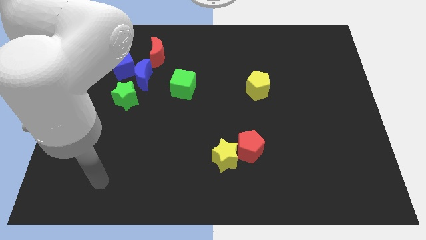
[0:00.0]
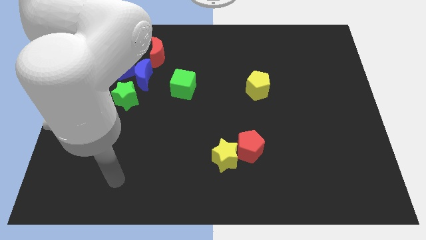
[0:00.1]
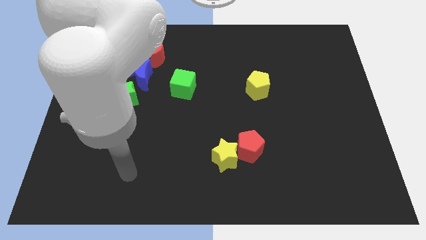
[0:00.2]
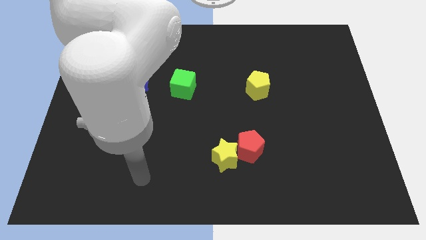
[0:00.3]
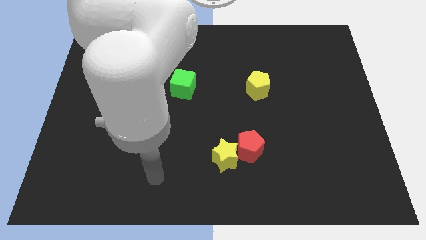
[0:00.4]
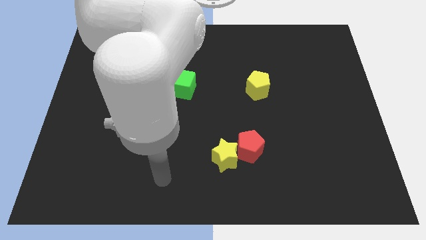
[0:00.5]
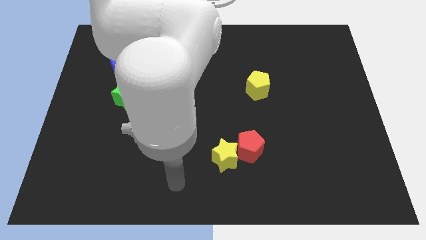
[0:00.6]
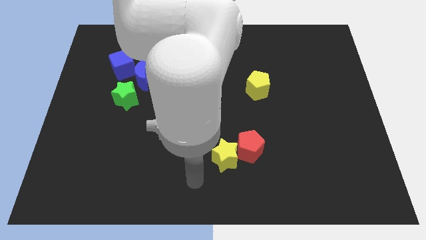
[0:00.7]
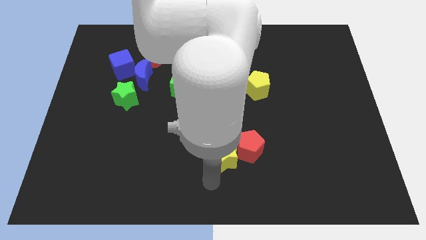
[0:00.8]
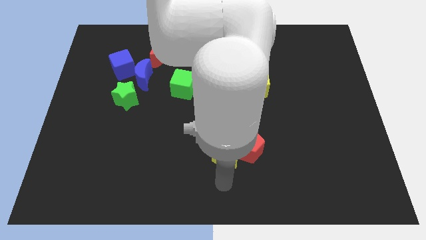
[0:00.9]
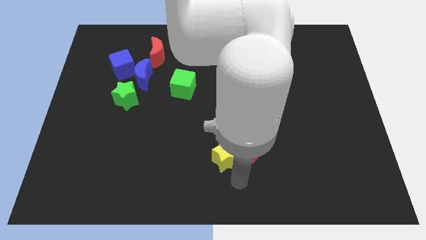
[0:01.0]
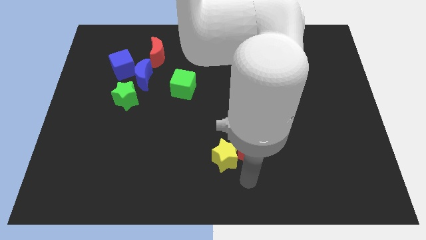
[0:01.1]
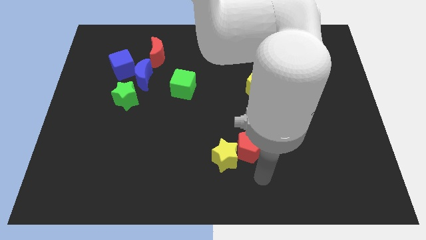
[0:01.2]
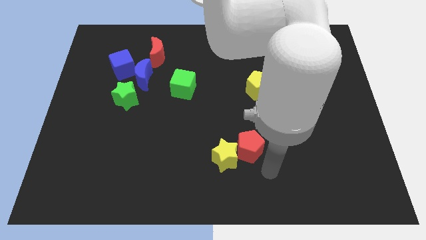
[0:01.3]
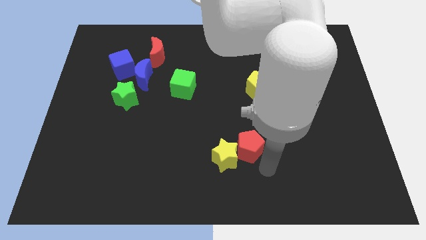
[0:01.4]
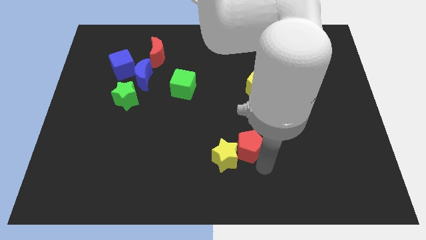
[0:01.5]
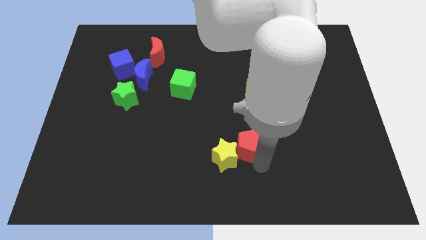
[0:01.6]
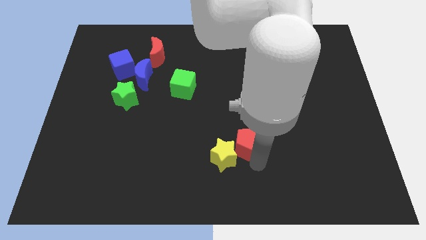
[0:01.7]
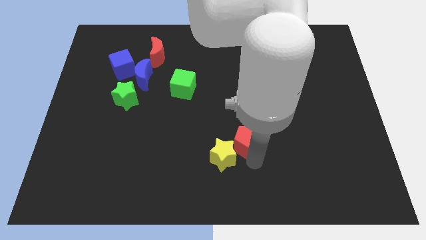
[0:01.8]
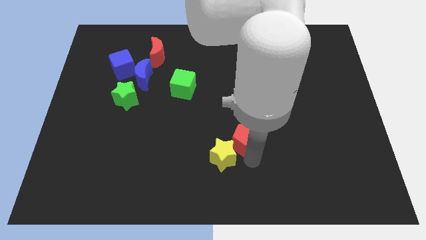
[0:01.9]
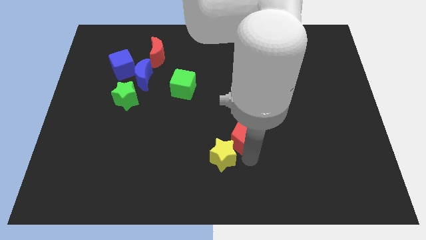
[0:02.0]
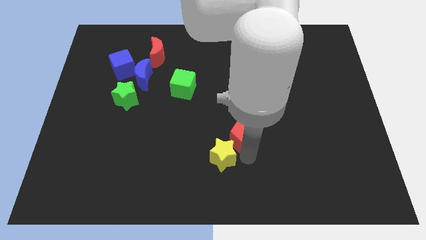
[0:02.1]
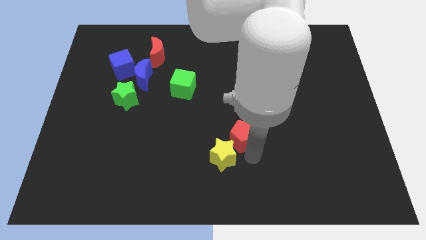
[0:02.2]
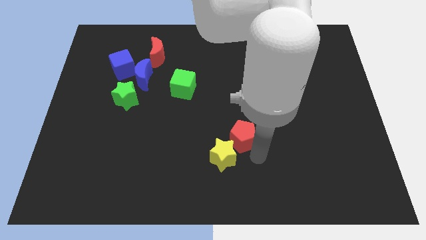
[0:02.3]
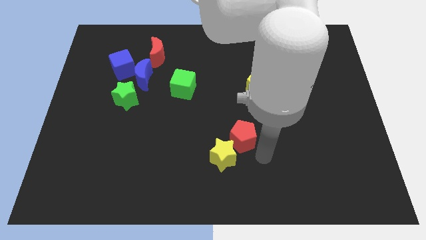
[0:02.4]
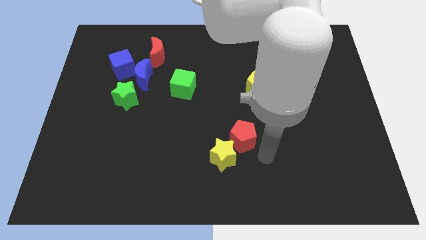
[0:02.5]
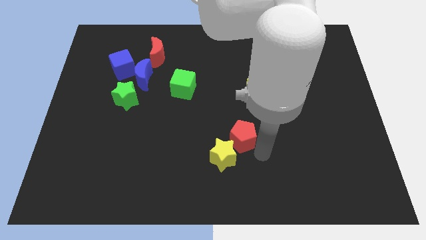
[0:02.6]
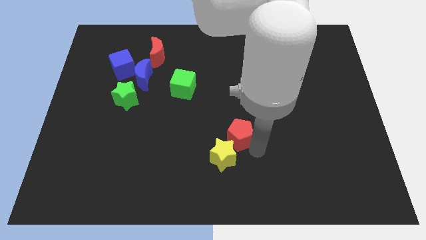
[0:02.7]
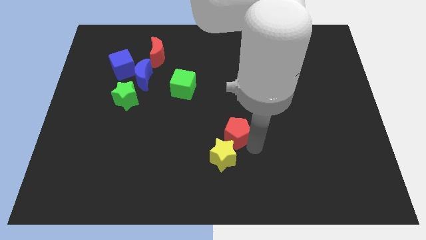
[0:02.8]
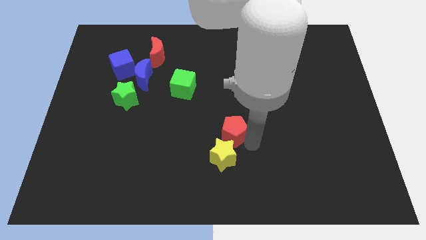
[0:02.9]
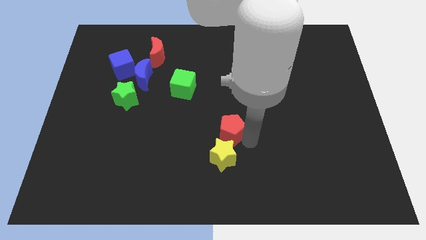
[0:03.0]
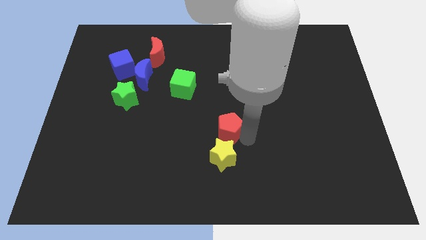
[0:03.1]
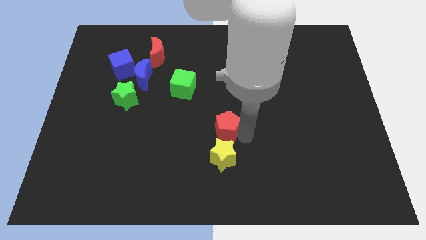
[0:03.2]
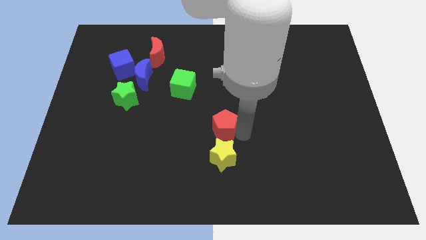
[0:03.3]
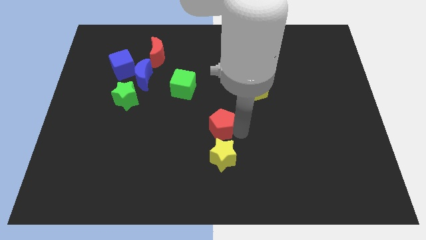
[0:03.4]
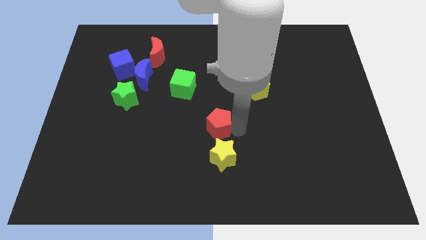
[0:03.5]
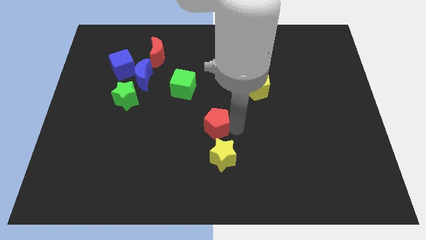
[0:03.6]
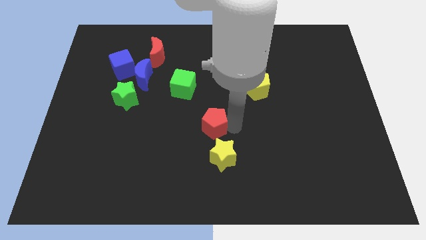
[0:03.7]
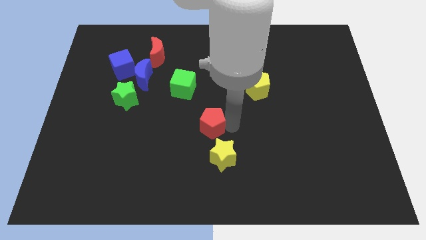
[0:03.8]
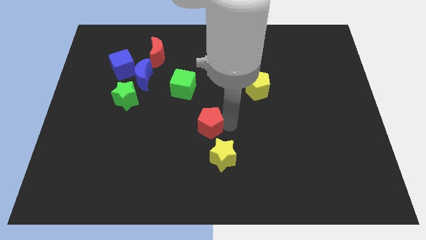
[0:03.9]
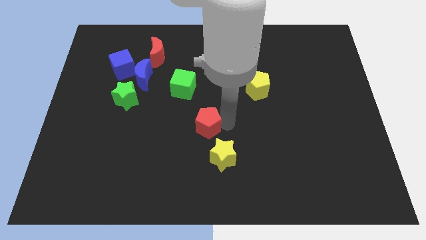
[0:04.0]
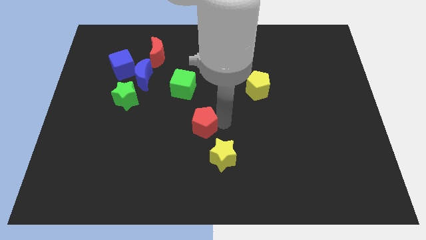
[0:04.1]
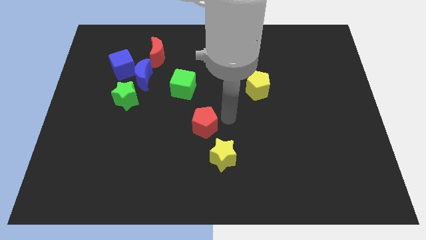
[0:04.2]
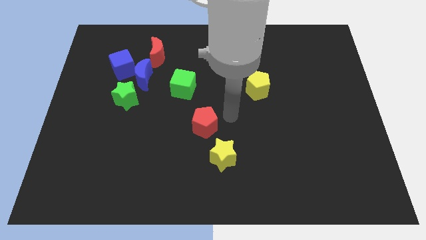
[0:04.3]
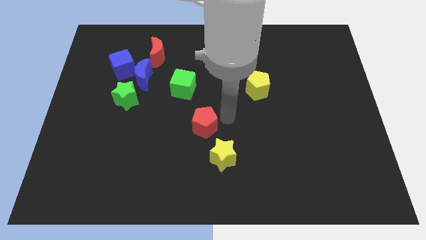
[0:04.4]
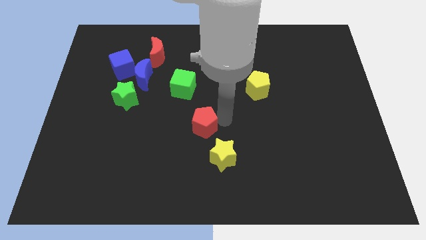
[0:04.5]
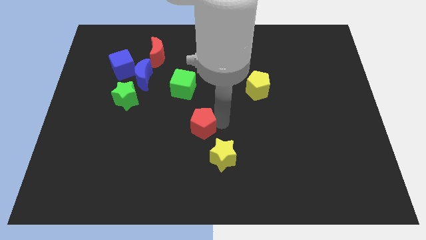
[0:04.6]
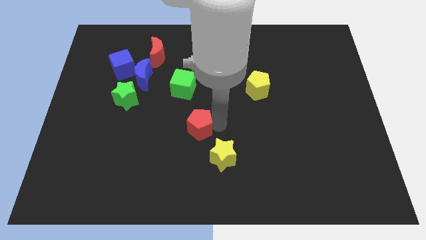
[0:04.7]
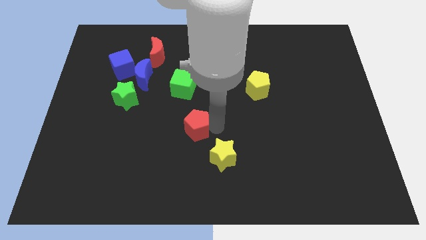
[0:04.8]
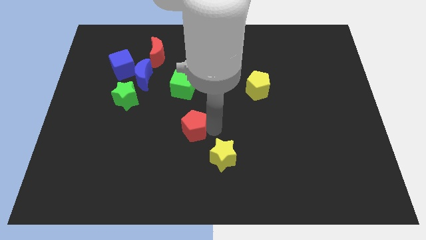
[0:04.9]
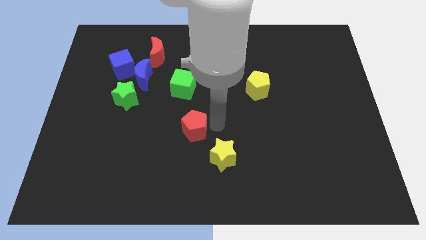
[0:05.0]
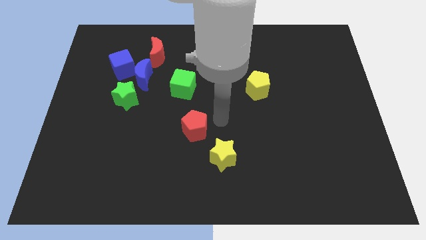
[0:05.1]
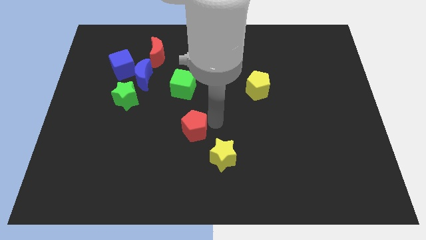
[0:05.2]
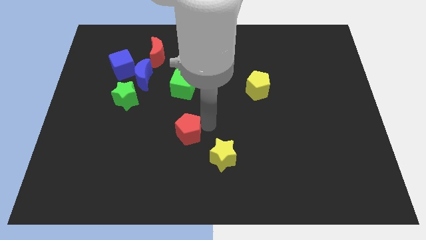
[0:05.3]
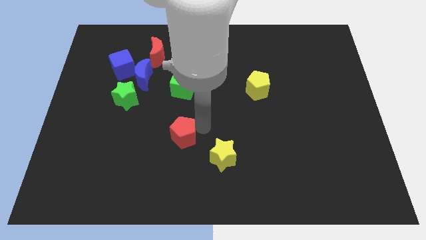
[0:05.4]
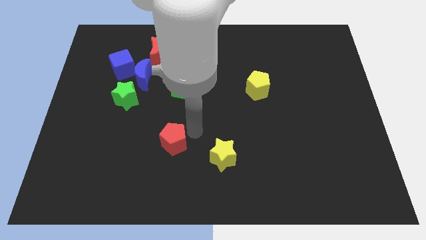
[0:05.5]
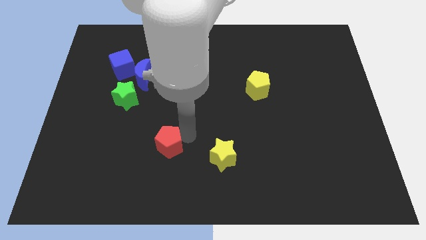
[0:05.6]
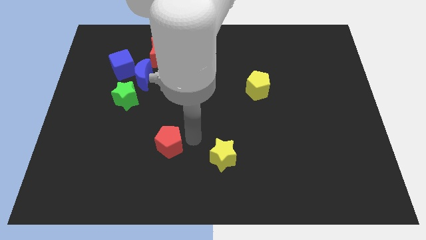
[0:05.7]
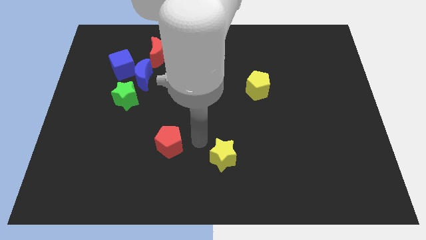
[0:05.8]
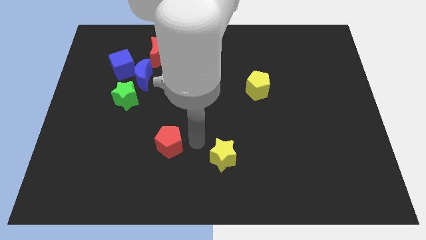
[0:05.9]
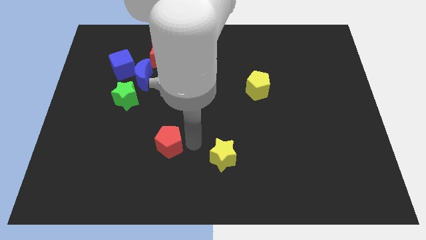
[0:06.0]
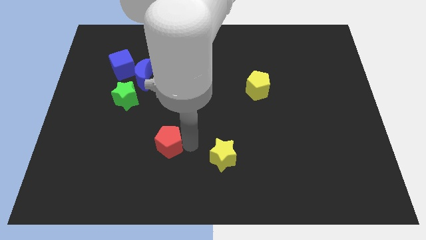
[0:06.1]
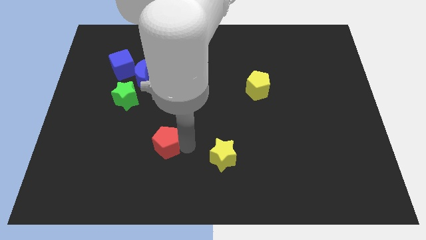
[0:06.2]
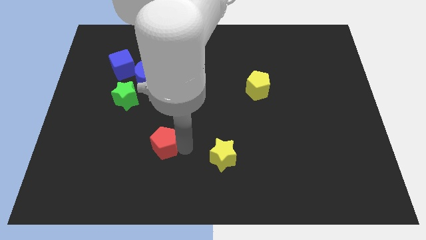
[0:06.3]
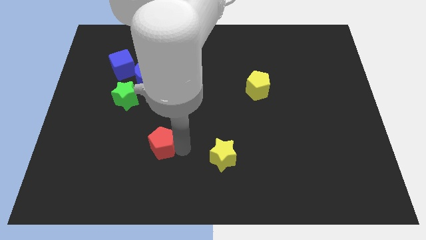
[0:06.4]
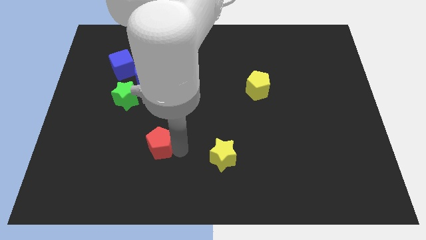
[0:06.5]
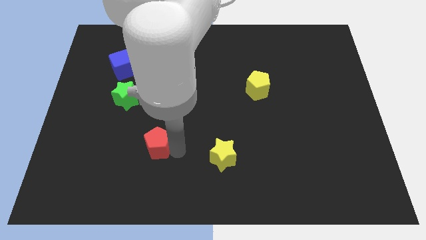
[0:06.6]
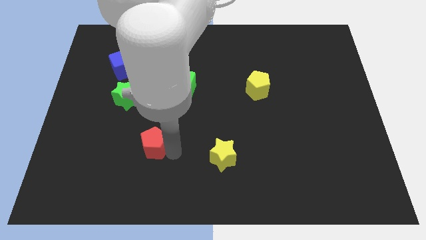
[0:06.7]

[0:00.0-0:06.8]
slide the red pentagon to the left

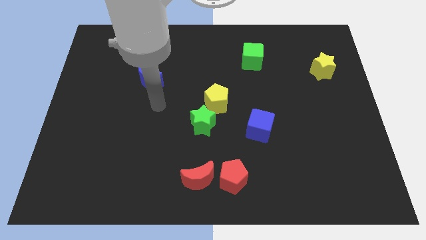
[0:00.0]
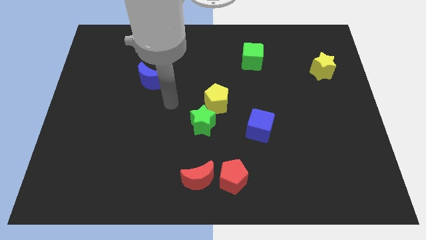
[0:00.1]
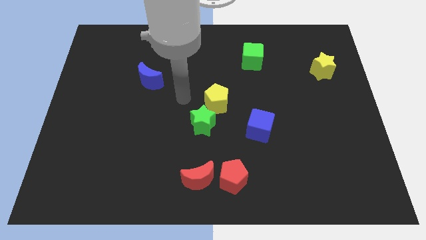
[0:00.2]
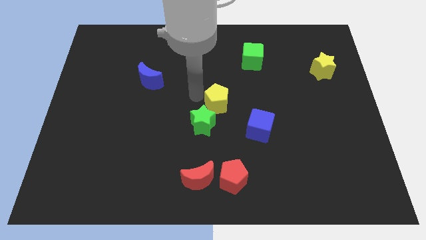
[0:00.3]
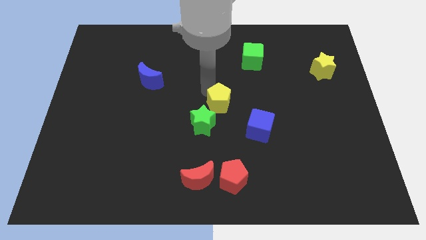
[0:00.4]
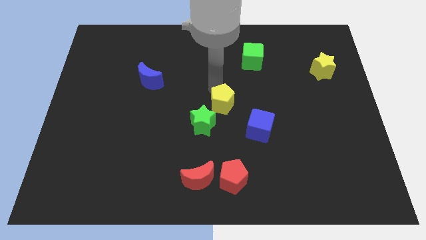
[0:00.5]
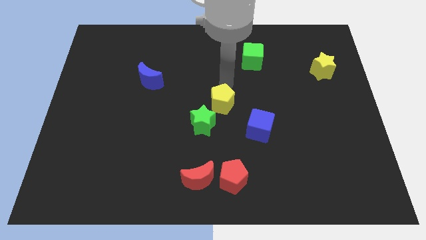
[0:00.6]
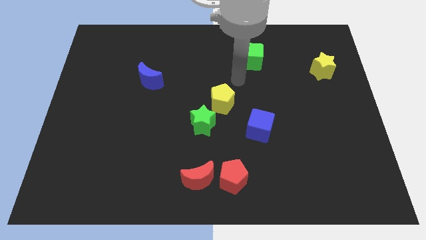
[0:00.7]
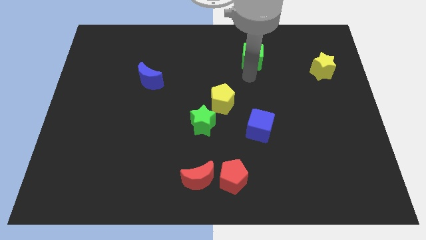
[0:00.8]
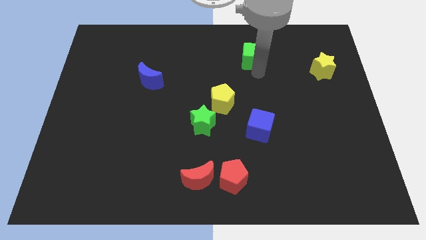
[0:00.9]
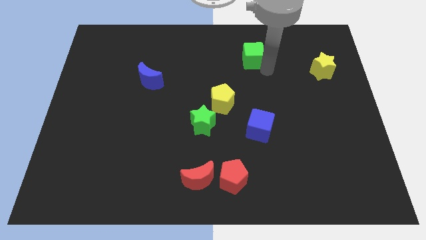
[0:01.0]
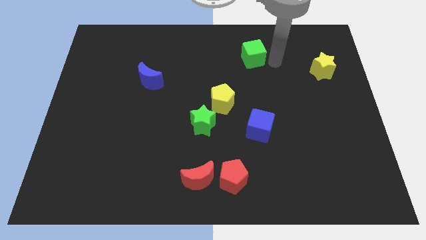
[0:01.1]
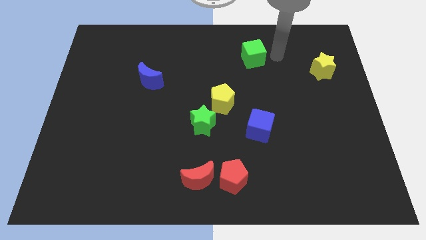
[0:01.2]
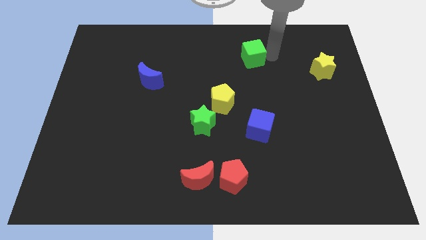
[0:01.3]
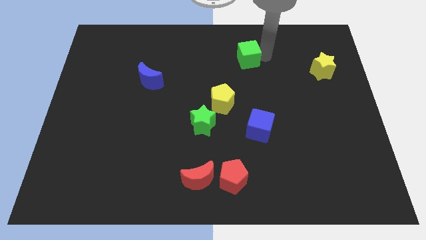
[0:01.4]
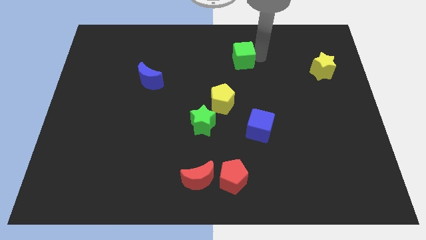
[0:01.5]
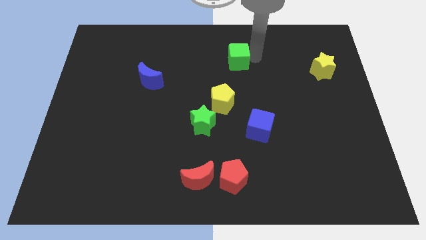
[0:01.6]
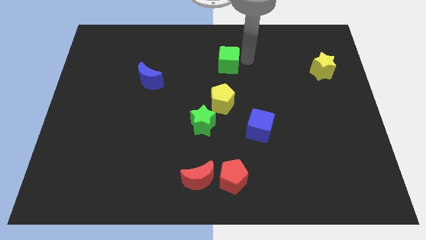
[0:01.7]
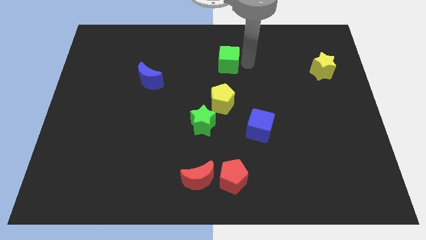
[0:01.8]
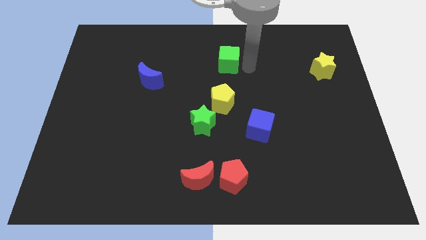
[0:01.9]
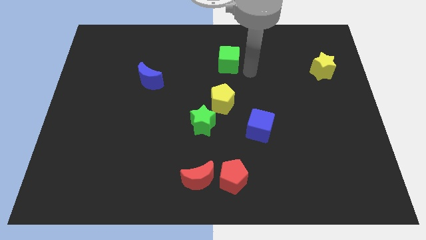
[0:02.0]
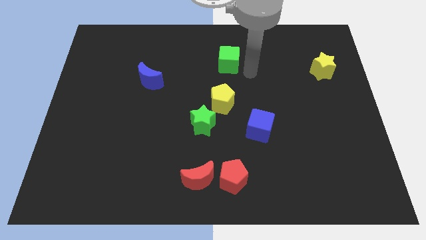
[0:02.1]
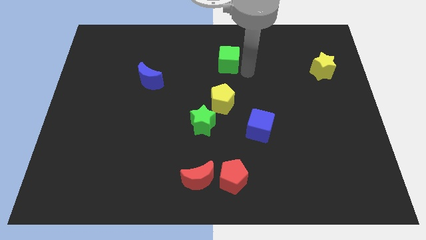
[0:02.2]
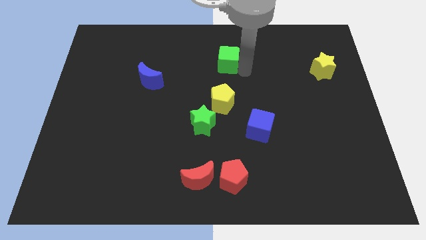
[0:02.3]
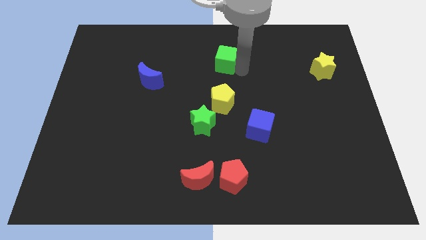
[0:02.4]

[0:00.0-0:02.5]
slide the green cube left somewhat
